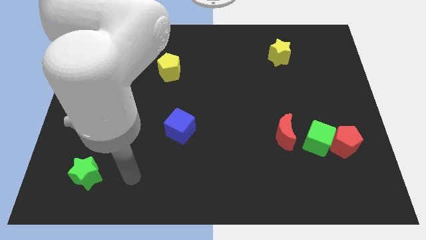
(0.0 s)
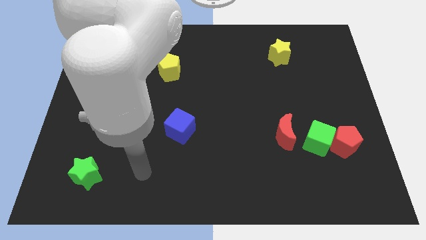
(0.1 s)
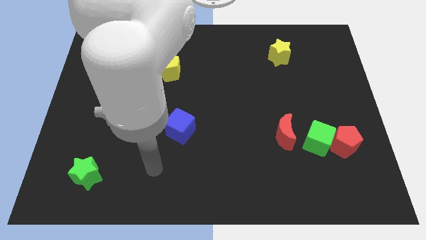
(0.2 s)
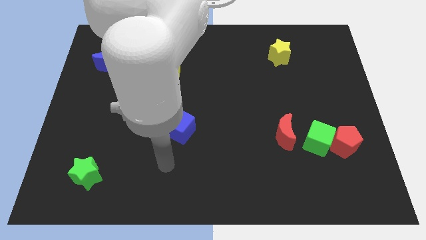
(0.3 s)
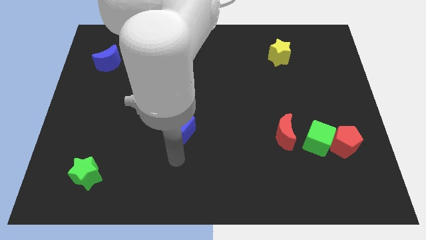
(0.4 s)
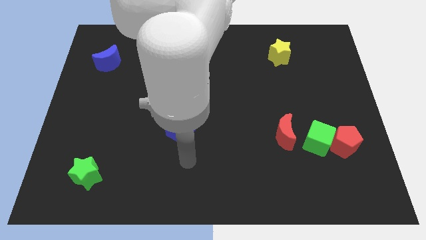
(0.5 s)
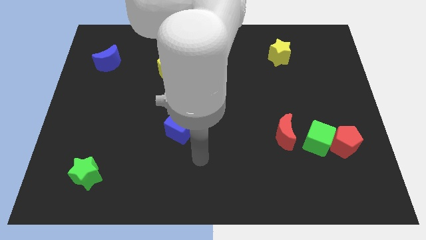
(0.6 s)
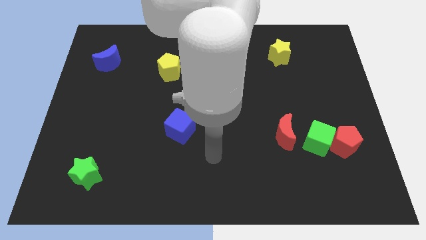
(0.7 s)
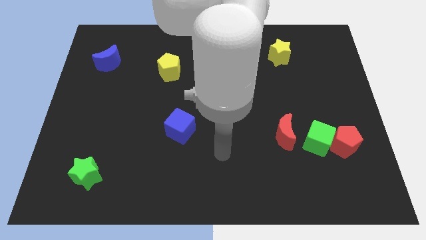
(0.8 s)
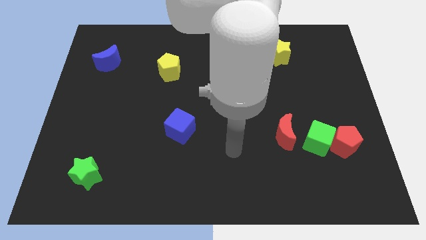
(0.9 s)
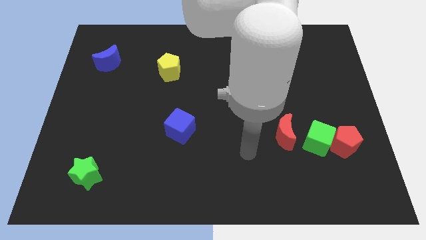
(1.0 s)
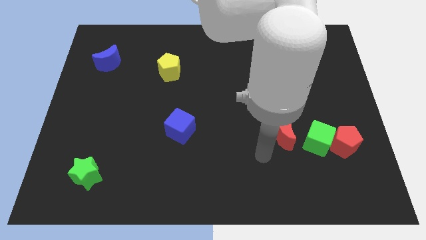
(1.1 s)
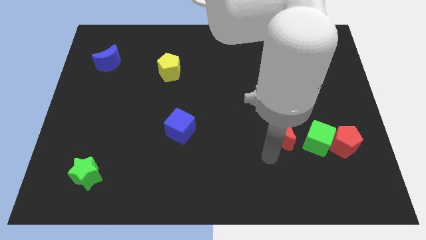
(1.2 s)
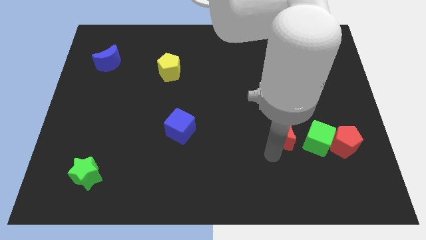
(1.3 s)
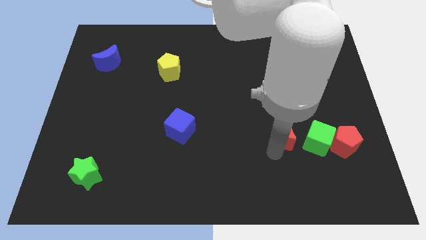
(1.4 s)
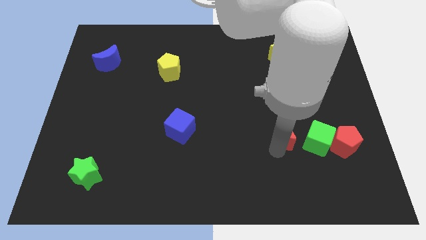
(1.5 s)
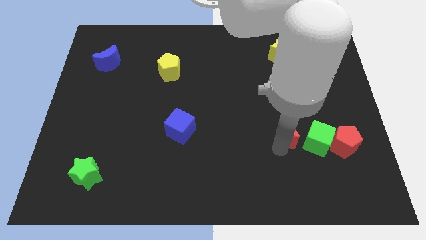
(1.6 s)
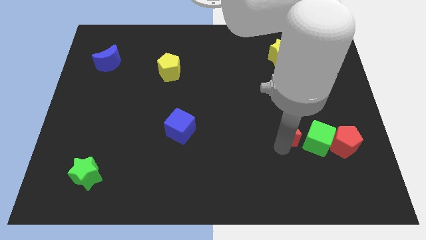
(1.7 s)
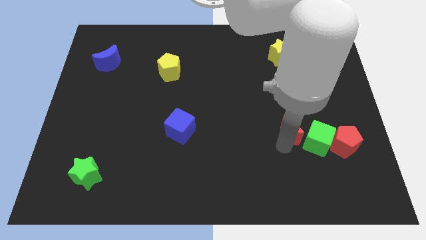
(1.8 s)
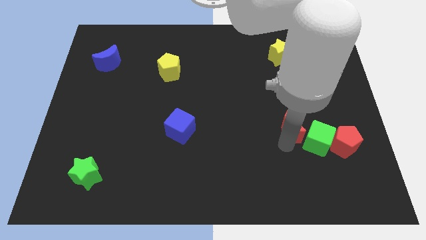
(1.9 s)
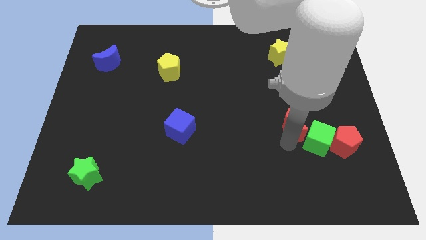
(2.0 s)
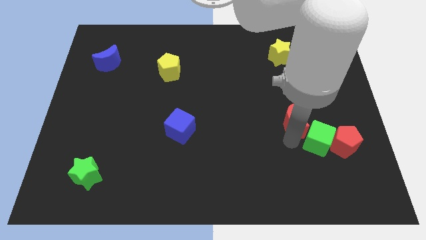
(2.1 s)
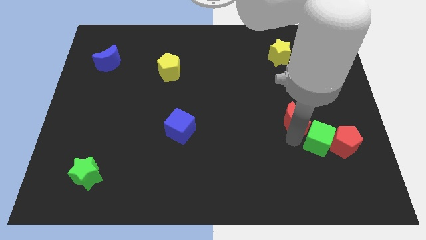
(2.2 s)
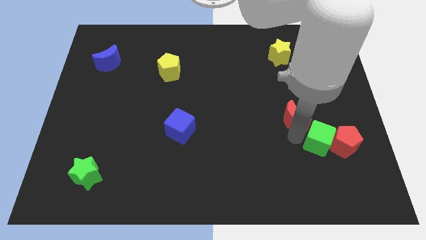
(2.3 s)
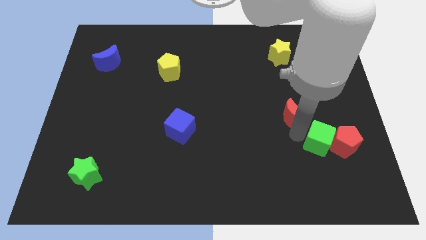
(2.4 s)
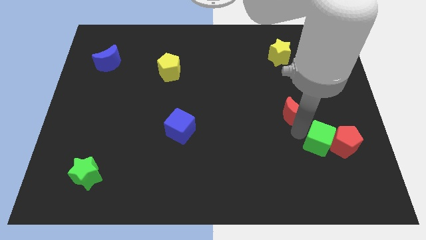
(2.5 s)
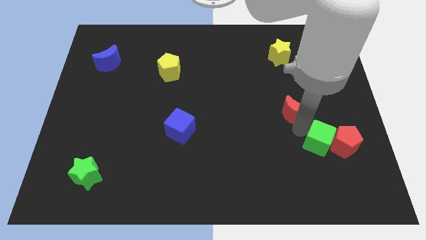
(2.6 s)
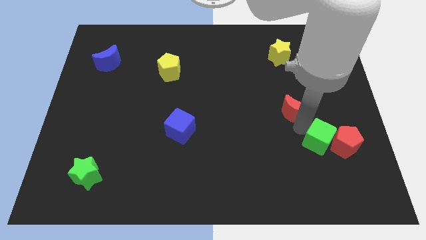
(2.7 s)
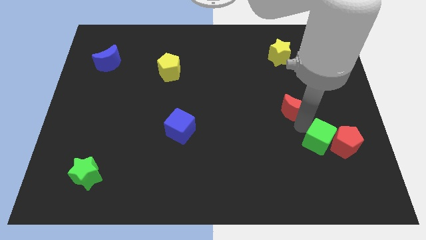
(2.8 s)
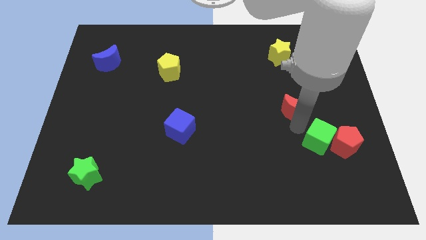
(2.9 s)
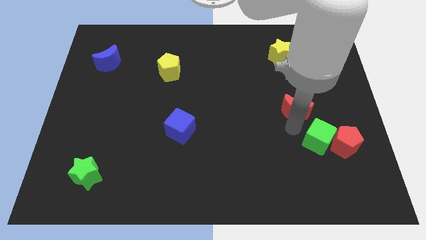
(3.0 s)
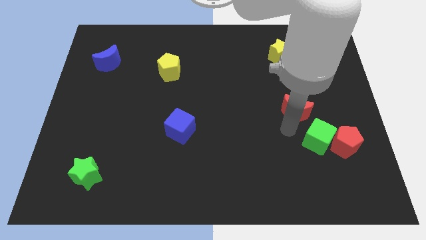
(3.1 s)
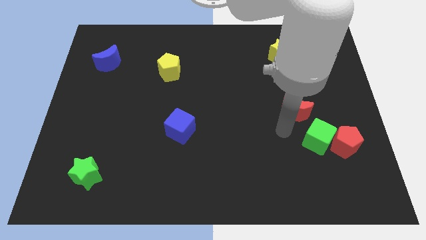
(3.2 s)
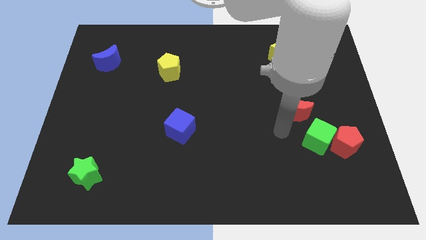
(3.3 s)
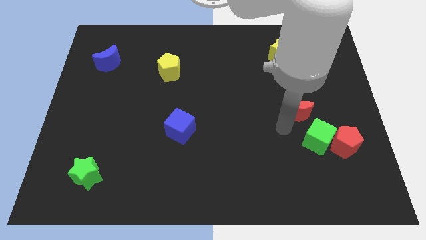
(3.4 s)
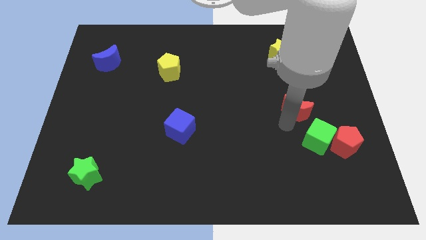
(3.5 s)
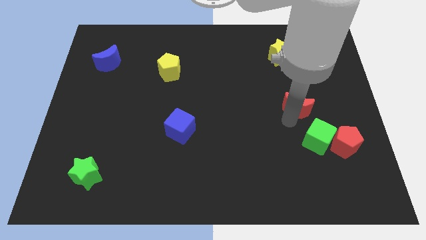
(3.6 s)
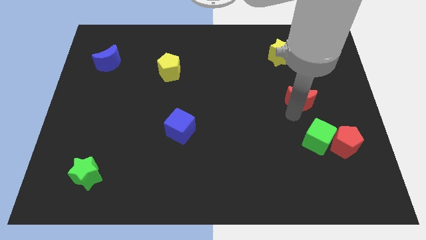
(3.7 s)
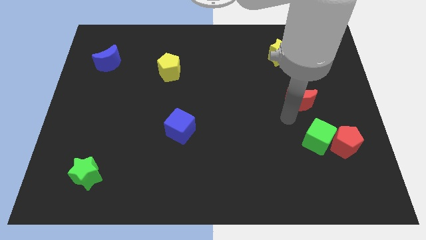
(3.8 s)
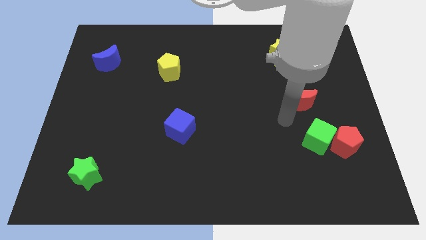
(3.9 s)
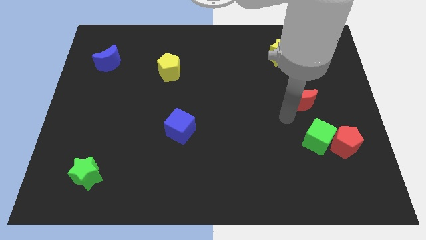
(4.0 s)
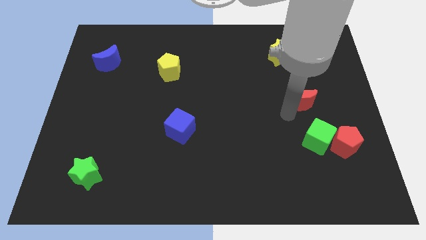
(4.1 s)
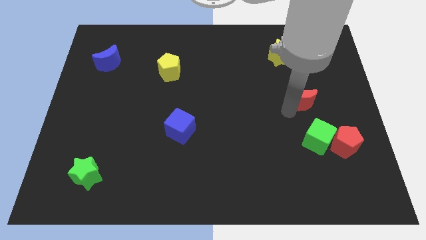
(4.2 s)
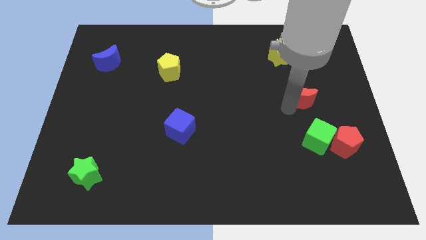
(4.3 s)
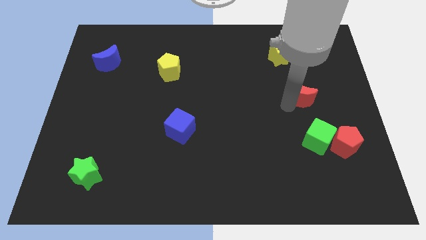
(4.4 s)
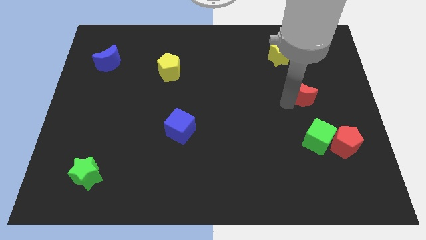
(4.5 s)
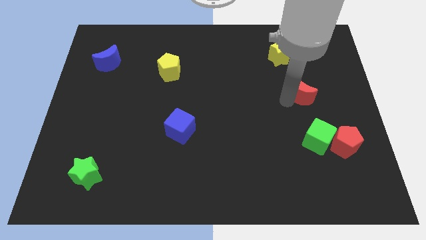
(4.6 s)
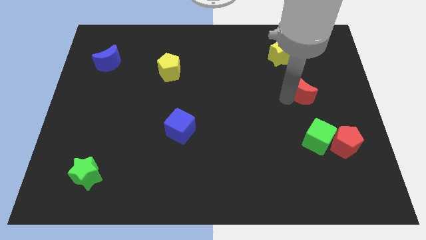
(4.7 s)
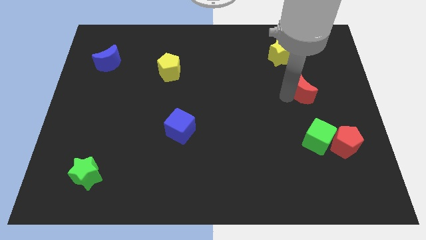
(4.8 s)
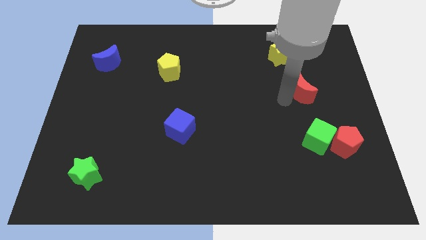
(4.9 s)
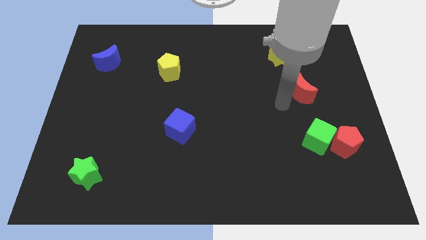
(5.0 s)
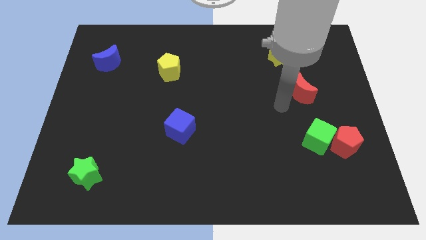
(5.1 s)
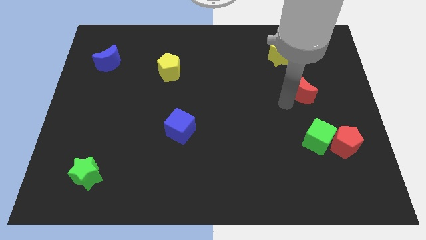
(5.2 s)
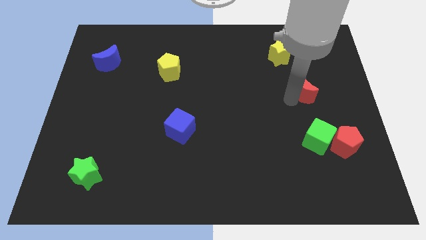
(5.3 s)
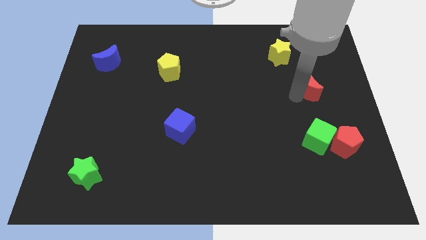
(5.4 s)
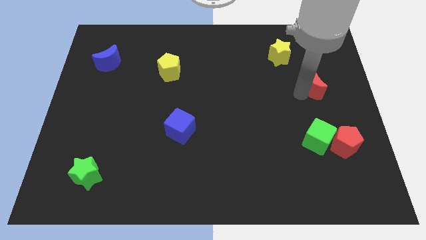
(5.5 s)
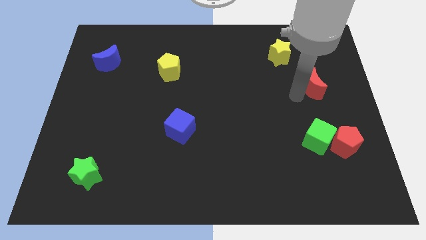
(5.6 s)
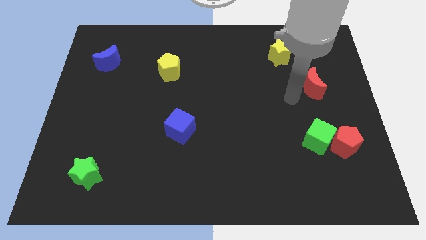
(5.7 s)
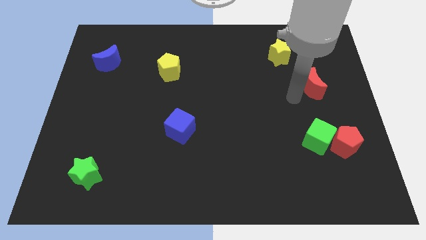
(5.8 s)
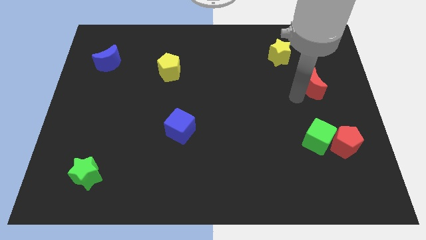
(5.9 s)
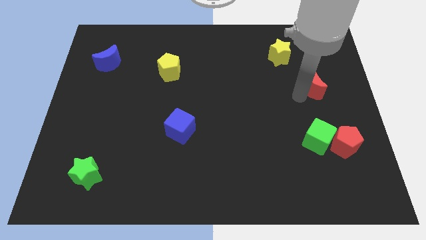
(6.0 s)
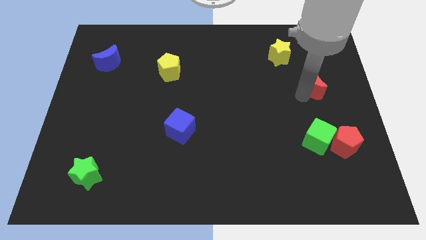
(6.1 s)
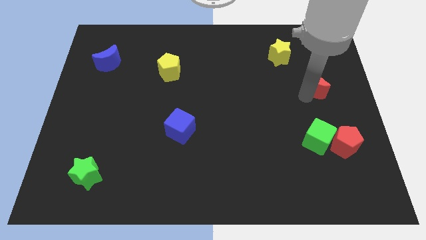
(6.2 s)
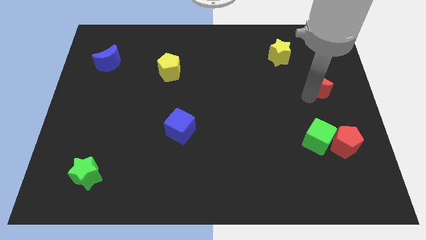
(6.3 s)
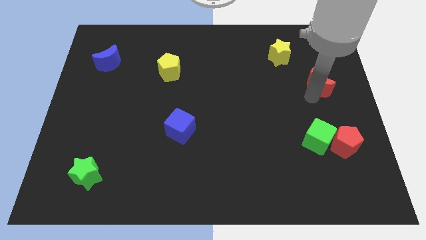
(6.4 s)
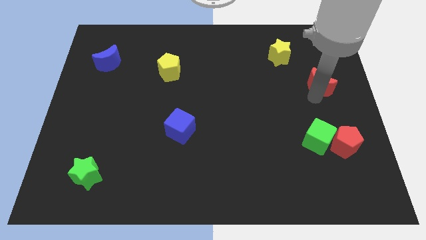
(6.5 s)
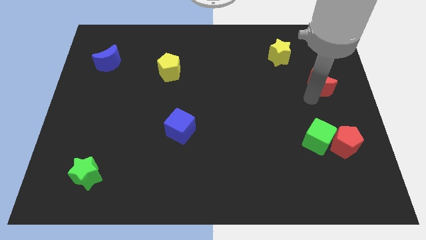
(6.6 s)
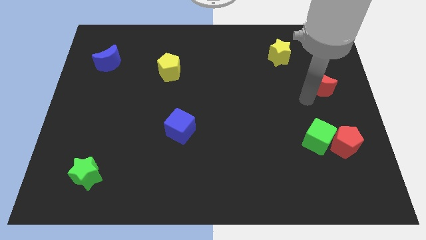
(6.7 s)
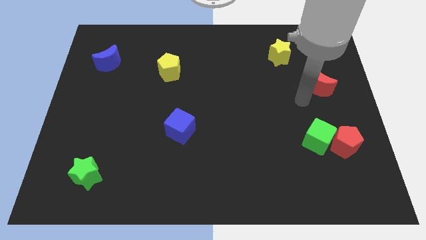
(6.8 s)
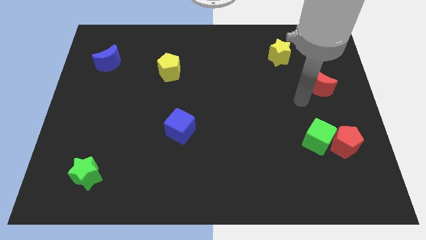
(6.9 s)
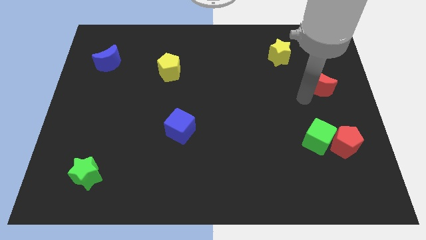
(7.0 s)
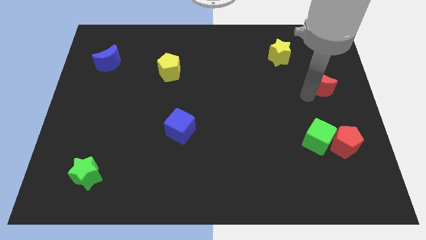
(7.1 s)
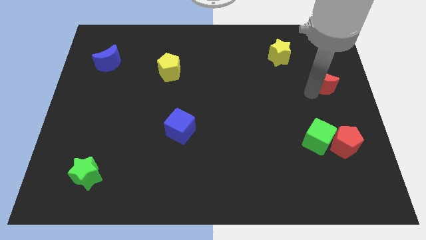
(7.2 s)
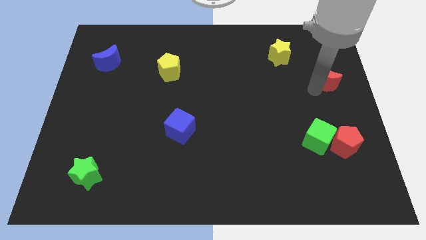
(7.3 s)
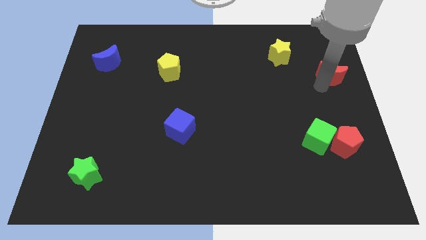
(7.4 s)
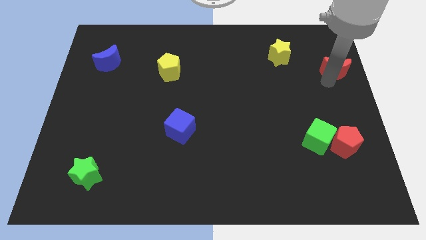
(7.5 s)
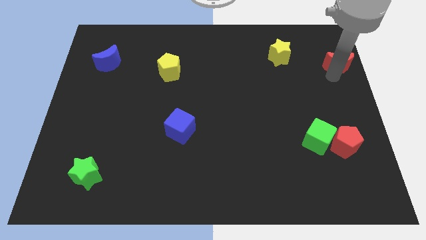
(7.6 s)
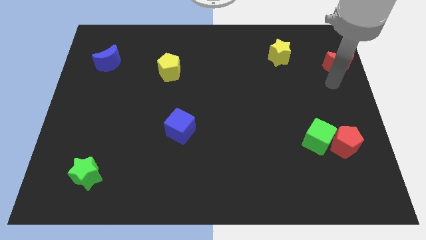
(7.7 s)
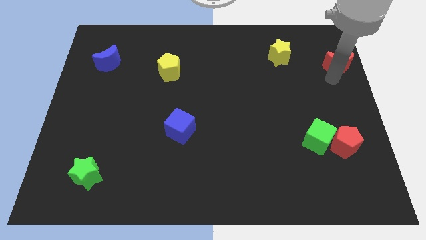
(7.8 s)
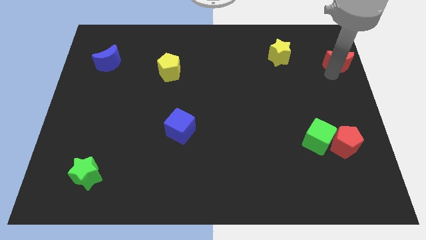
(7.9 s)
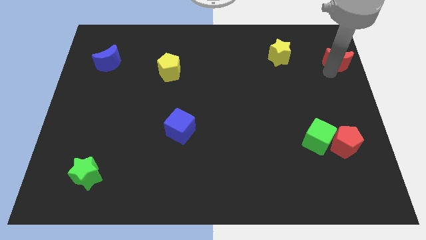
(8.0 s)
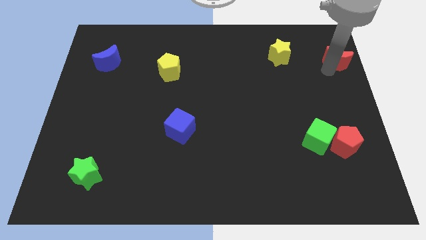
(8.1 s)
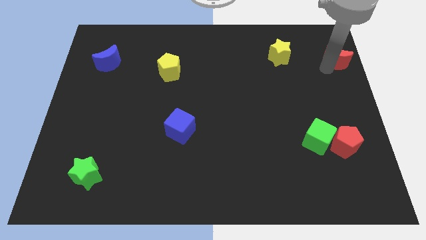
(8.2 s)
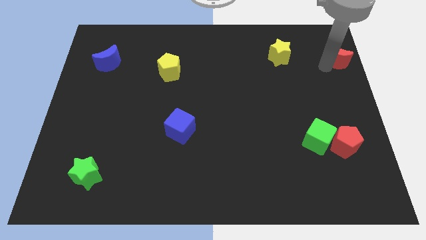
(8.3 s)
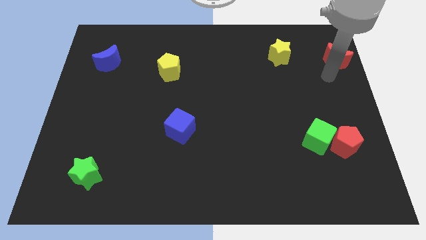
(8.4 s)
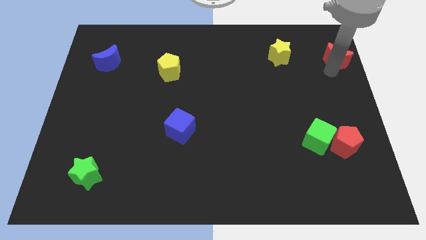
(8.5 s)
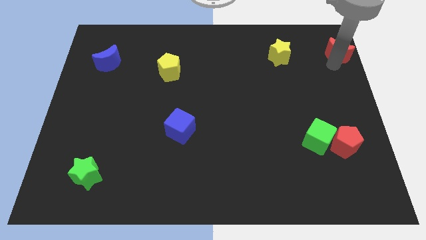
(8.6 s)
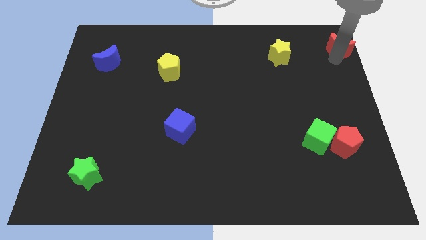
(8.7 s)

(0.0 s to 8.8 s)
push the red moon to the top right corner
